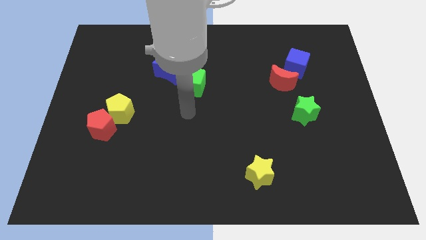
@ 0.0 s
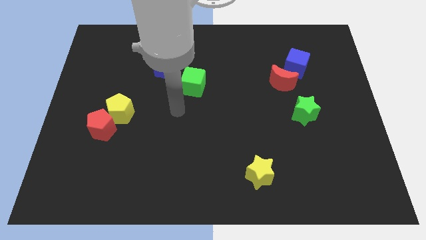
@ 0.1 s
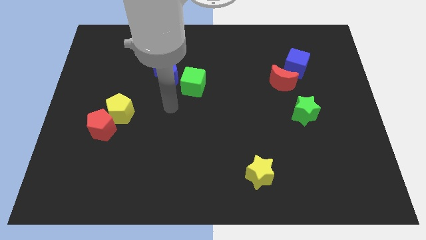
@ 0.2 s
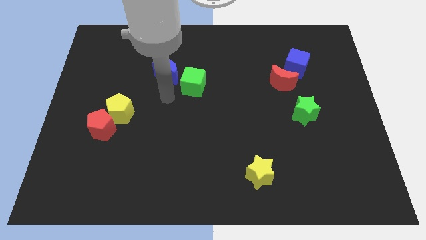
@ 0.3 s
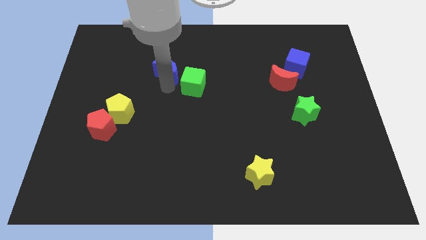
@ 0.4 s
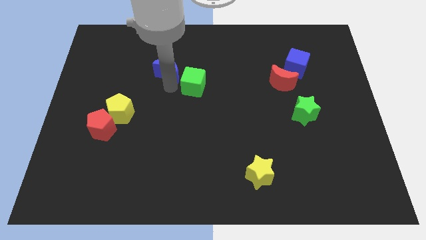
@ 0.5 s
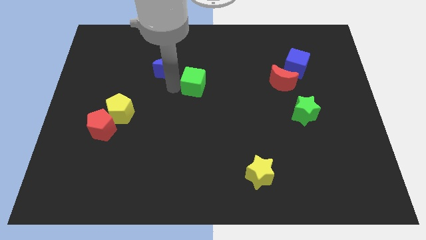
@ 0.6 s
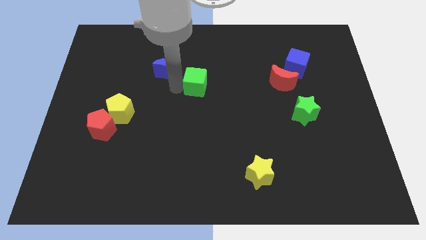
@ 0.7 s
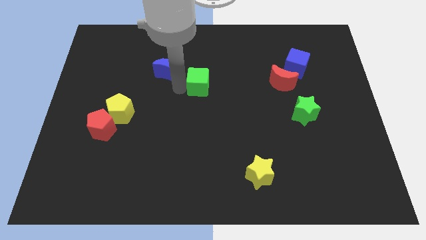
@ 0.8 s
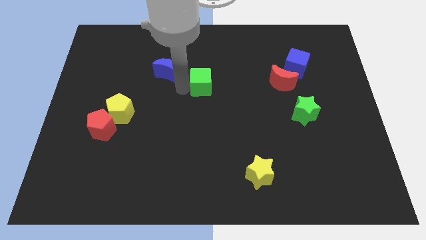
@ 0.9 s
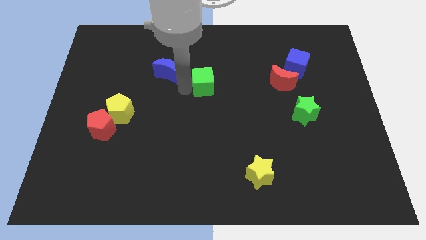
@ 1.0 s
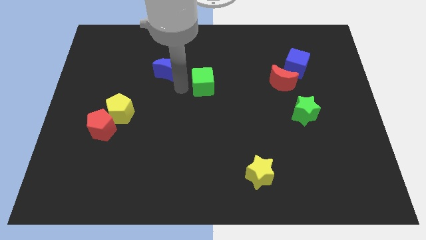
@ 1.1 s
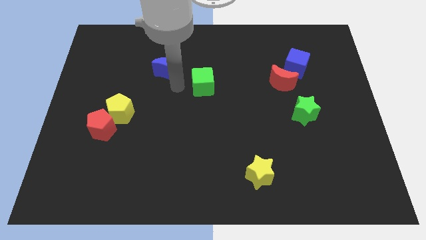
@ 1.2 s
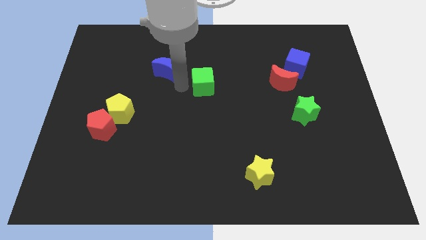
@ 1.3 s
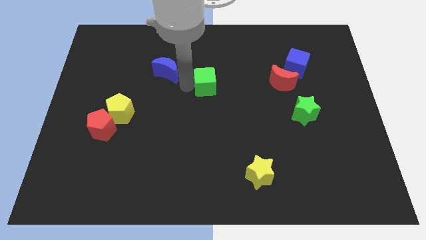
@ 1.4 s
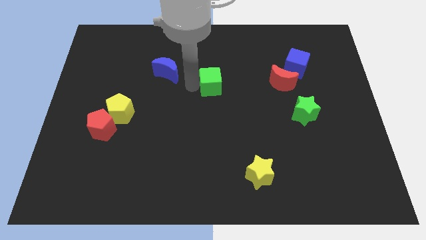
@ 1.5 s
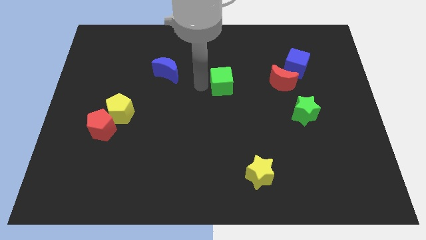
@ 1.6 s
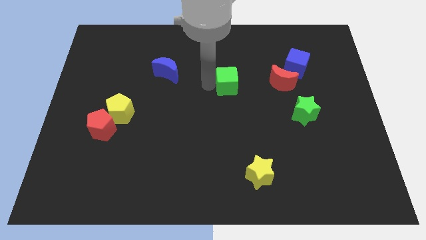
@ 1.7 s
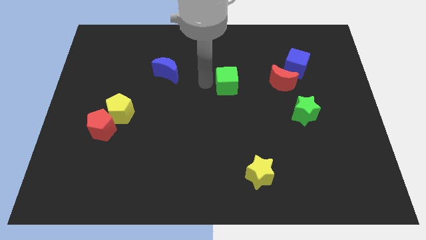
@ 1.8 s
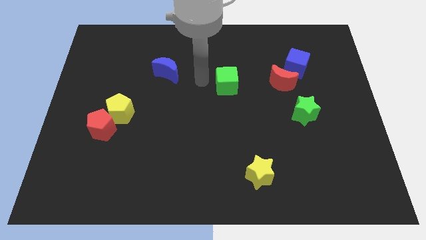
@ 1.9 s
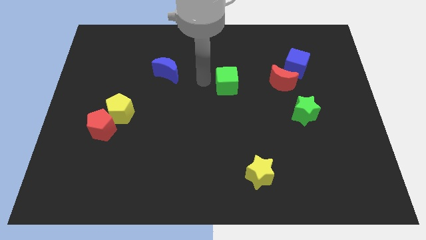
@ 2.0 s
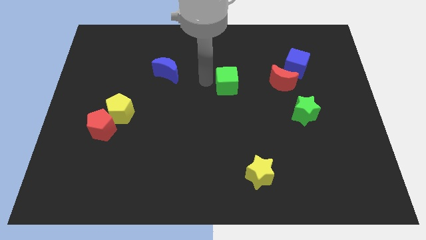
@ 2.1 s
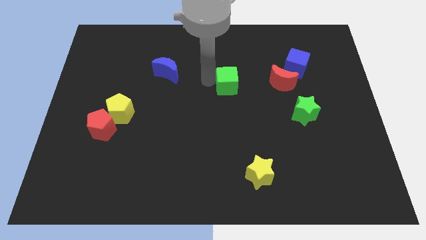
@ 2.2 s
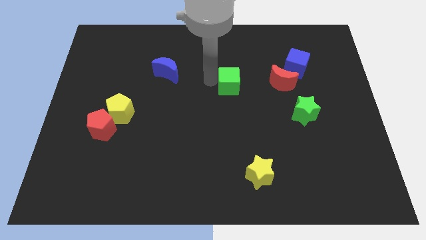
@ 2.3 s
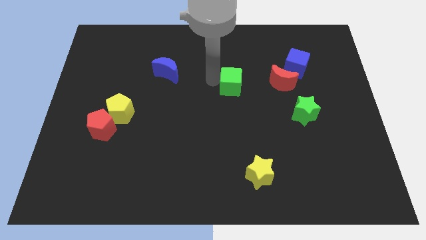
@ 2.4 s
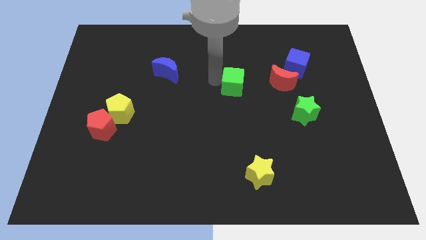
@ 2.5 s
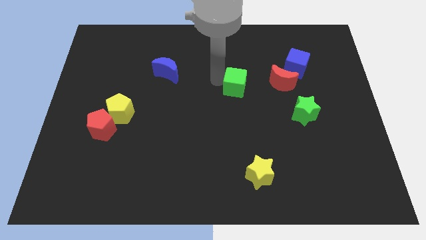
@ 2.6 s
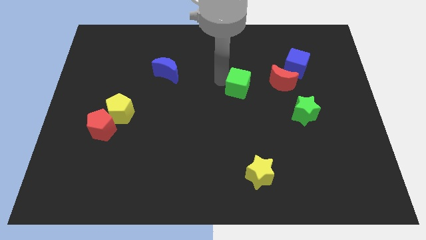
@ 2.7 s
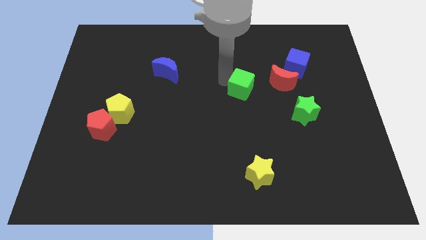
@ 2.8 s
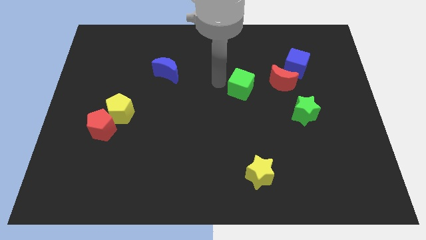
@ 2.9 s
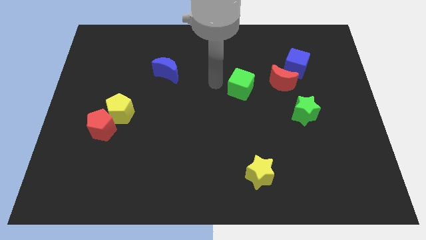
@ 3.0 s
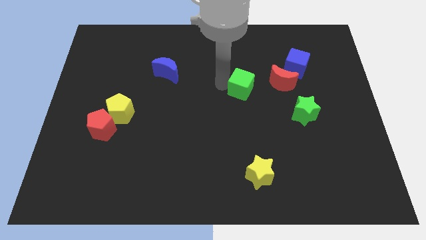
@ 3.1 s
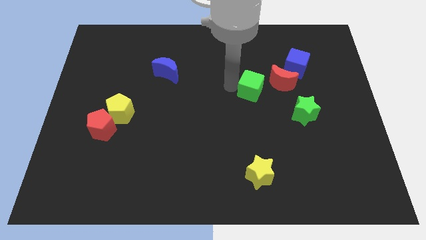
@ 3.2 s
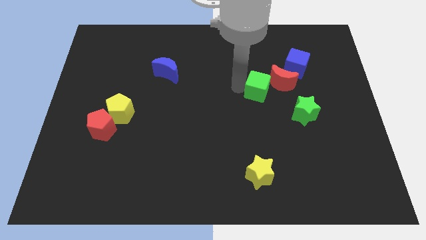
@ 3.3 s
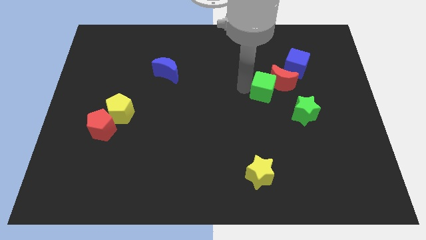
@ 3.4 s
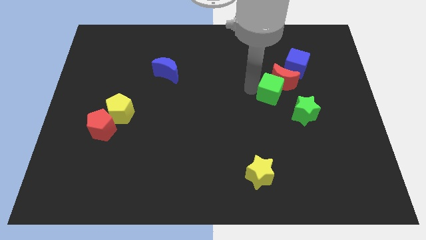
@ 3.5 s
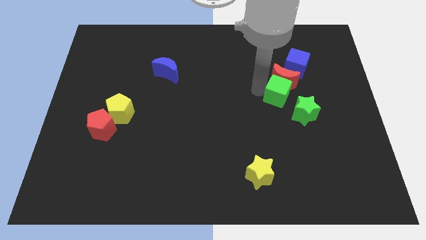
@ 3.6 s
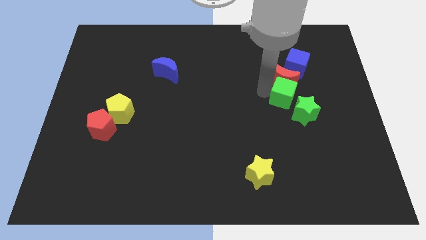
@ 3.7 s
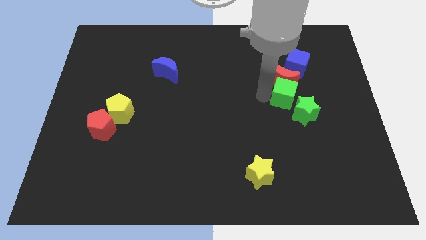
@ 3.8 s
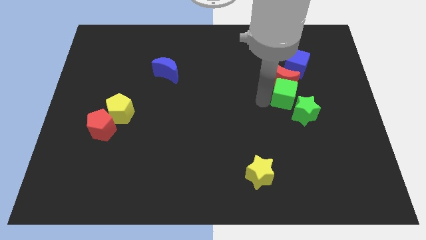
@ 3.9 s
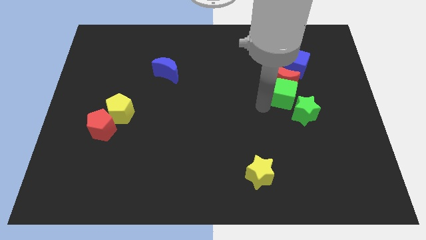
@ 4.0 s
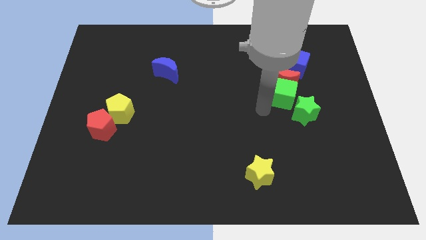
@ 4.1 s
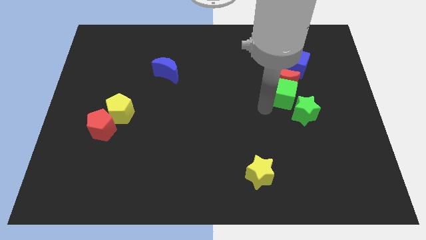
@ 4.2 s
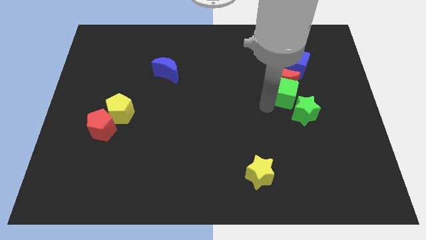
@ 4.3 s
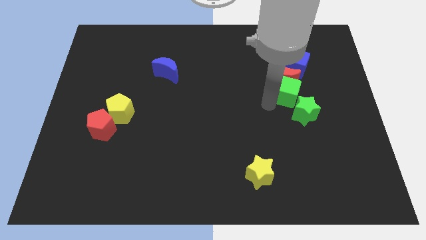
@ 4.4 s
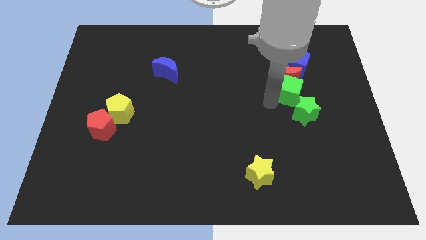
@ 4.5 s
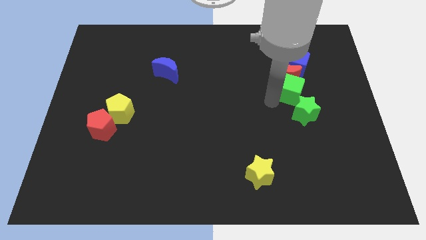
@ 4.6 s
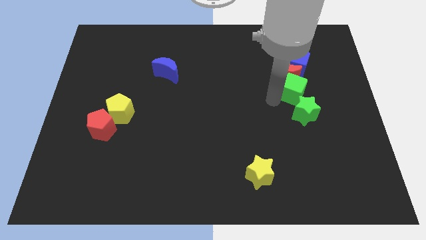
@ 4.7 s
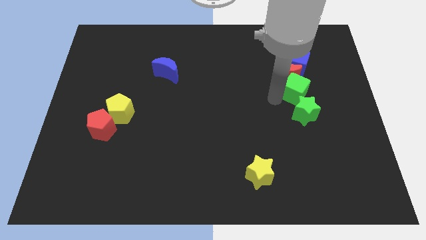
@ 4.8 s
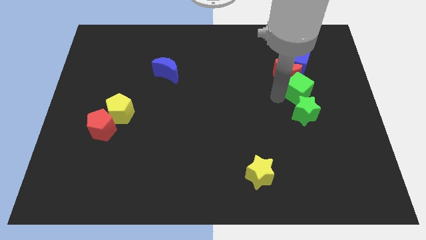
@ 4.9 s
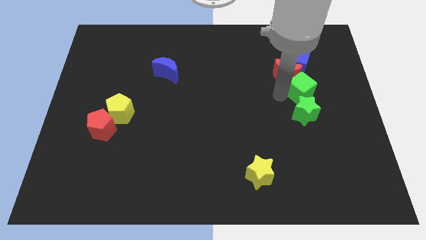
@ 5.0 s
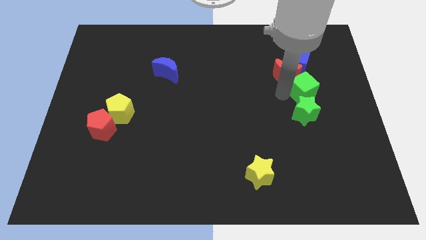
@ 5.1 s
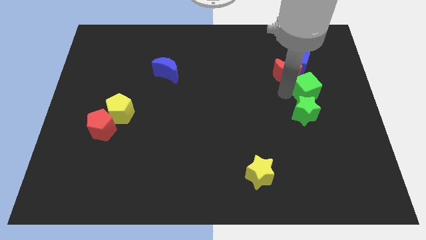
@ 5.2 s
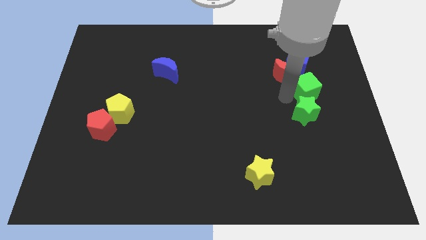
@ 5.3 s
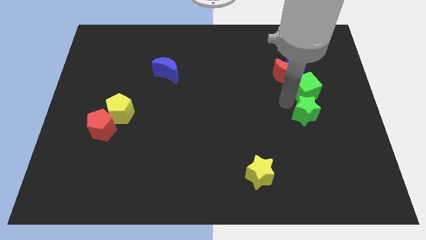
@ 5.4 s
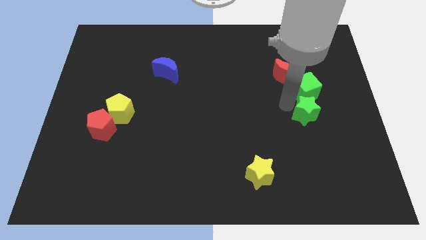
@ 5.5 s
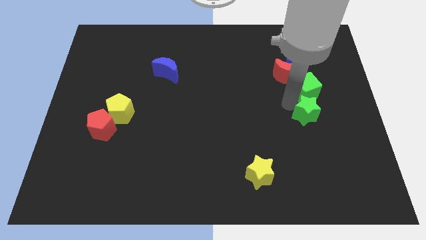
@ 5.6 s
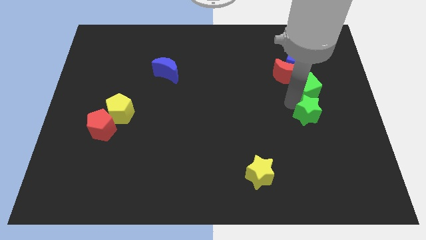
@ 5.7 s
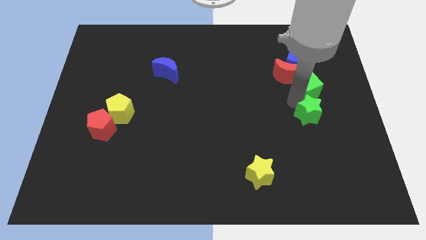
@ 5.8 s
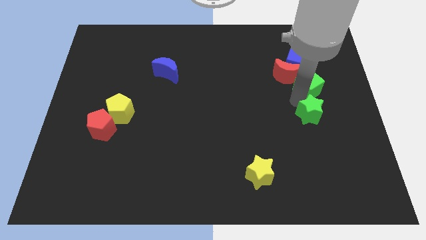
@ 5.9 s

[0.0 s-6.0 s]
push the green cube diagonally down and to the right of the blue cube

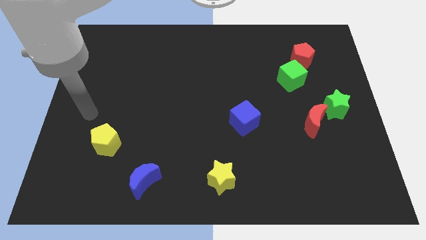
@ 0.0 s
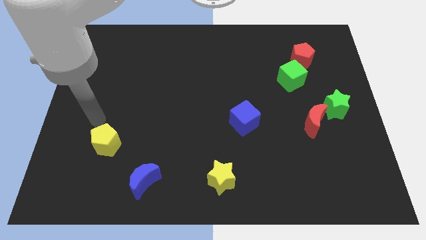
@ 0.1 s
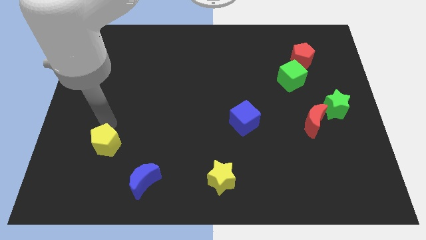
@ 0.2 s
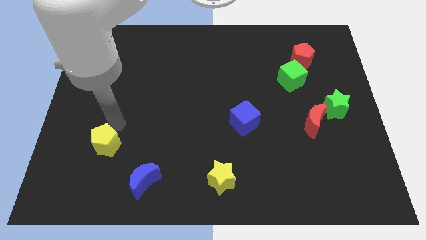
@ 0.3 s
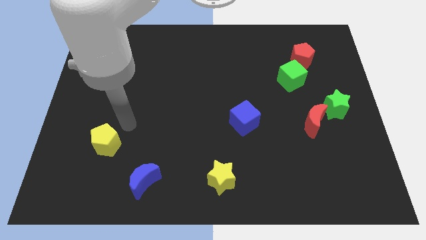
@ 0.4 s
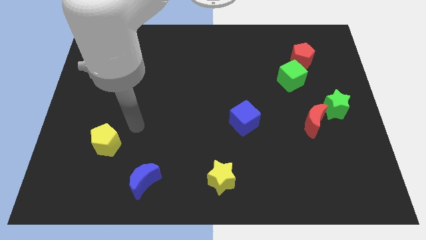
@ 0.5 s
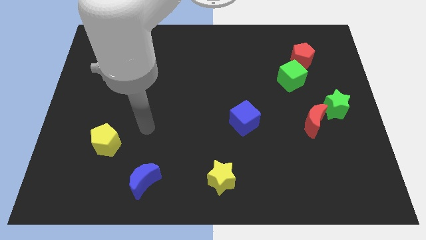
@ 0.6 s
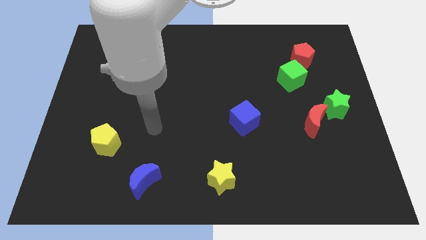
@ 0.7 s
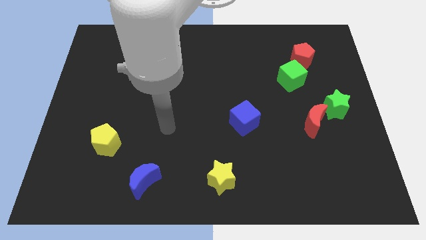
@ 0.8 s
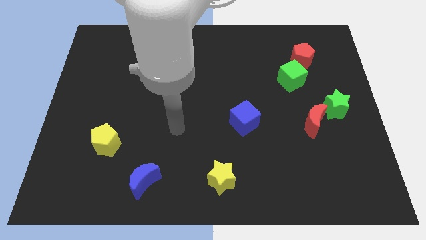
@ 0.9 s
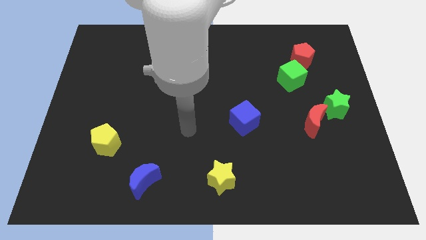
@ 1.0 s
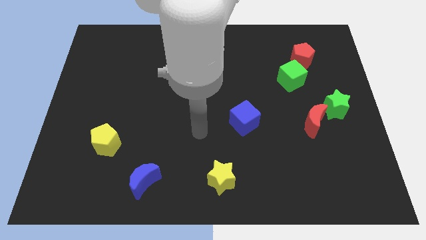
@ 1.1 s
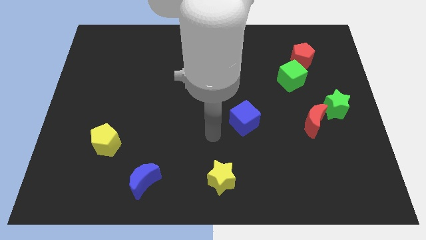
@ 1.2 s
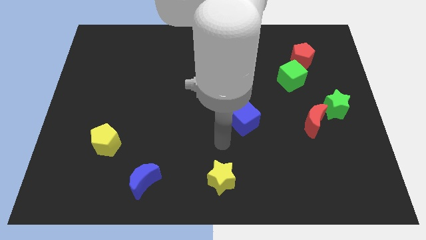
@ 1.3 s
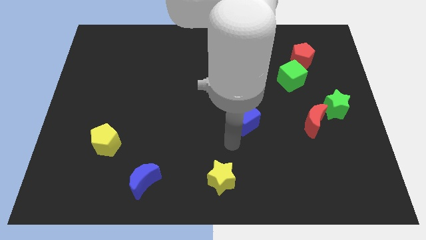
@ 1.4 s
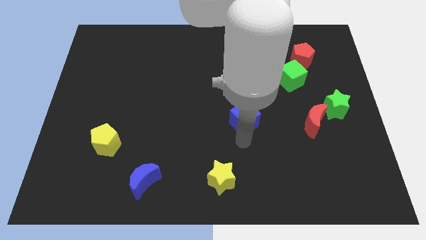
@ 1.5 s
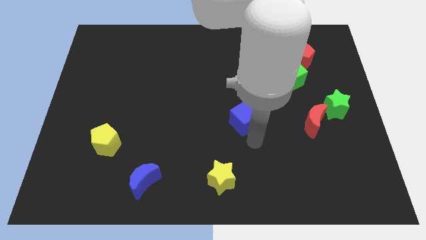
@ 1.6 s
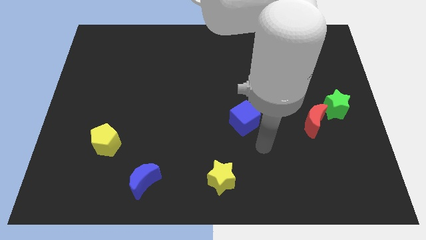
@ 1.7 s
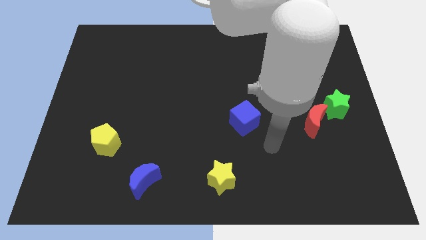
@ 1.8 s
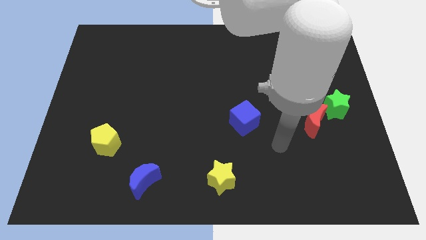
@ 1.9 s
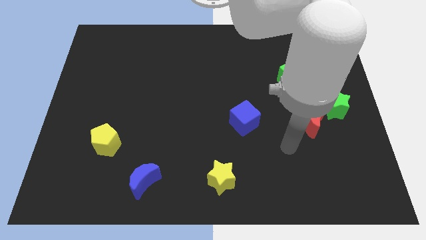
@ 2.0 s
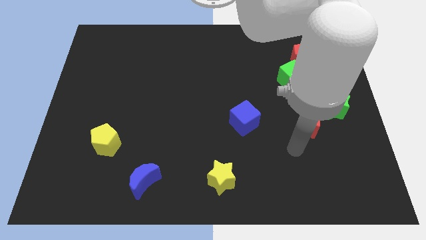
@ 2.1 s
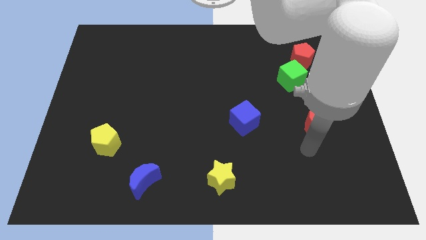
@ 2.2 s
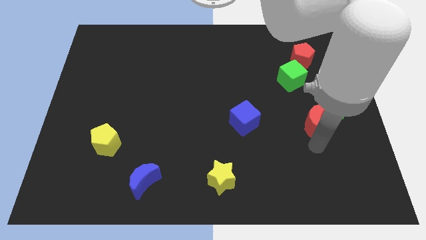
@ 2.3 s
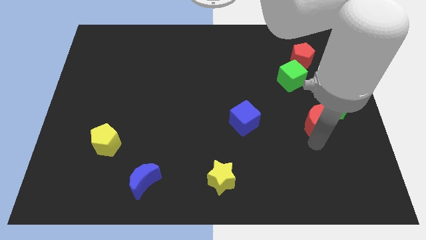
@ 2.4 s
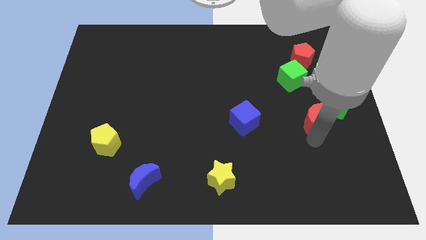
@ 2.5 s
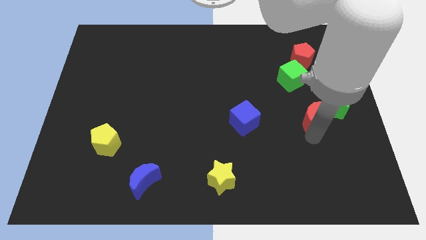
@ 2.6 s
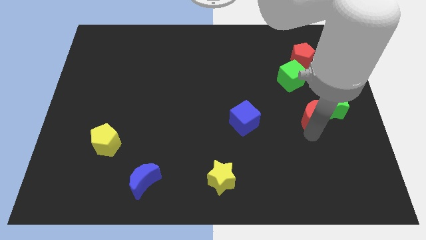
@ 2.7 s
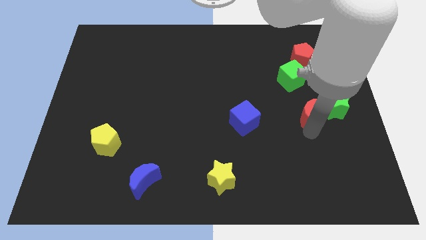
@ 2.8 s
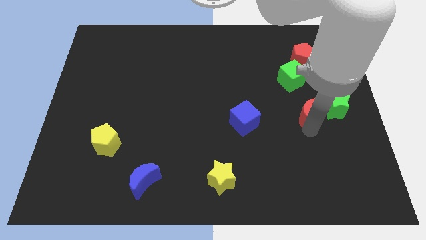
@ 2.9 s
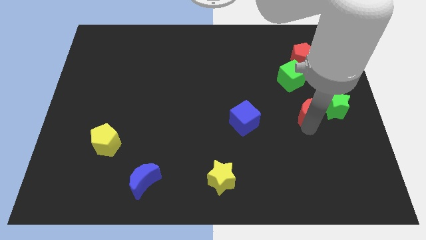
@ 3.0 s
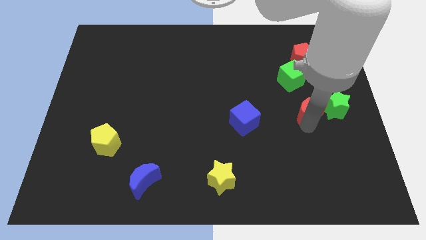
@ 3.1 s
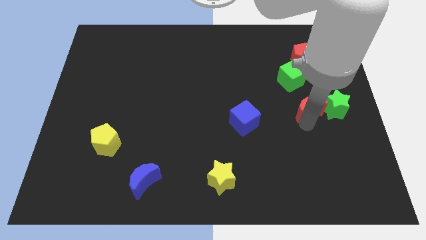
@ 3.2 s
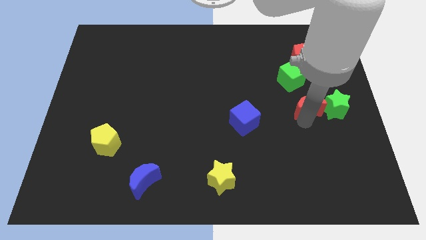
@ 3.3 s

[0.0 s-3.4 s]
slide the red moon to the bottom of the red pentagon
